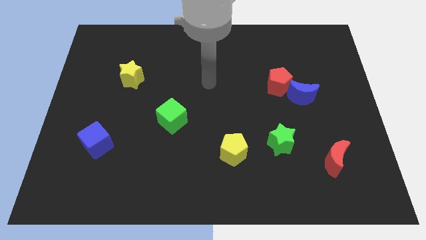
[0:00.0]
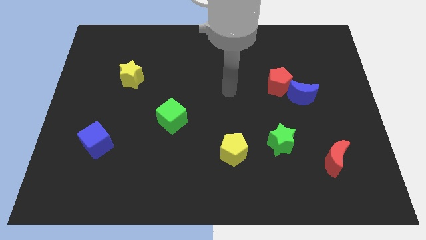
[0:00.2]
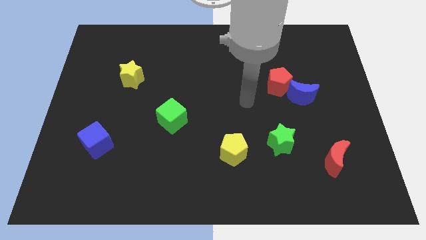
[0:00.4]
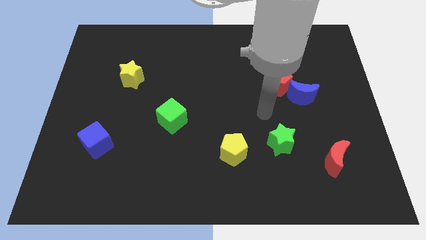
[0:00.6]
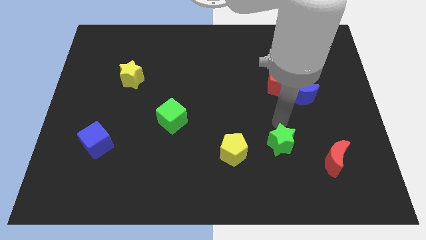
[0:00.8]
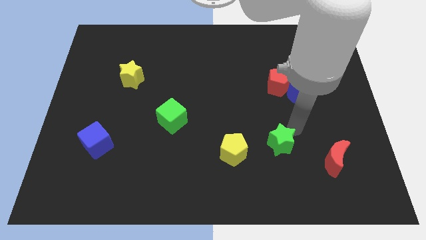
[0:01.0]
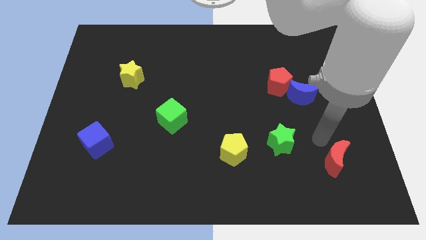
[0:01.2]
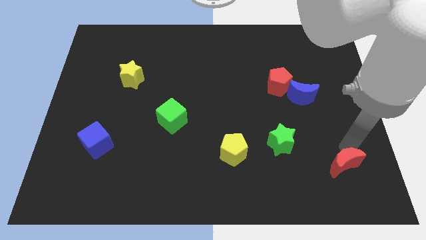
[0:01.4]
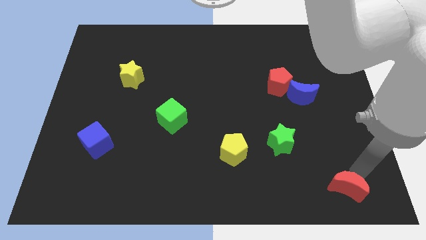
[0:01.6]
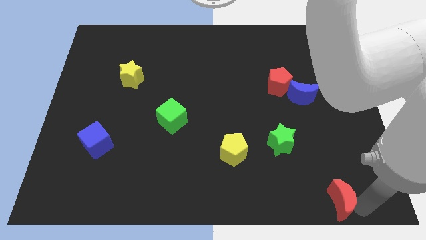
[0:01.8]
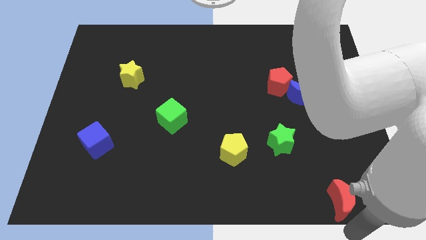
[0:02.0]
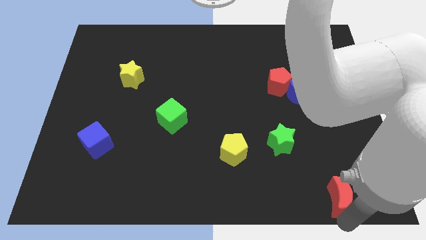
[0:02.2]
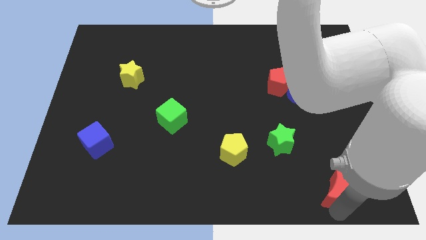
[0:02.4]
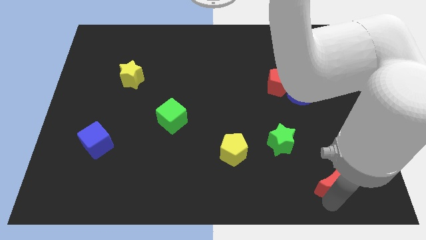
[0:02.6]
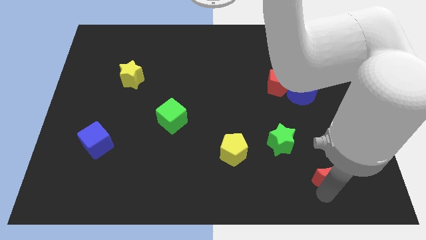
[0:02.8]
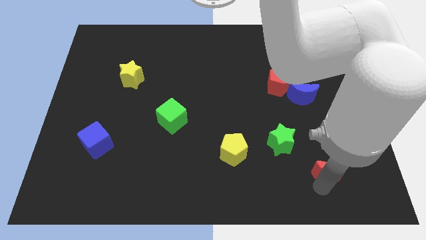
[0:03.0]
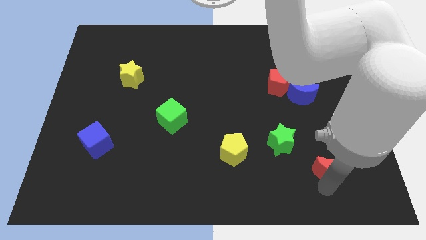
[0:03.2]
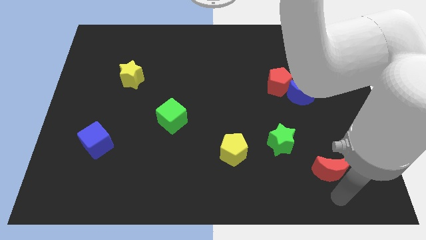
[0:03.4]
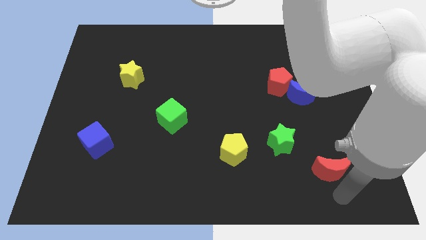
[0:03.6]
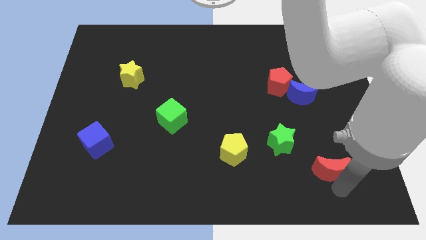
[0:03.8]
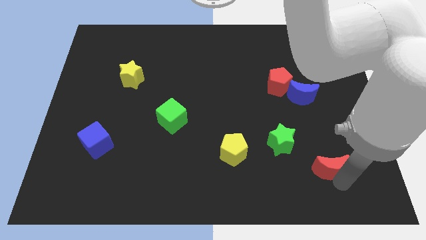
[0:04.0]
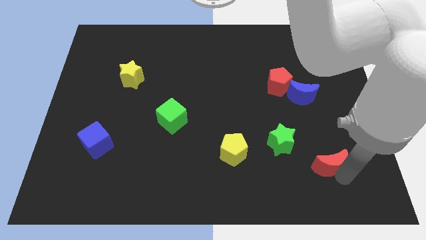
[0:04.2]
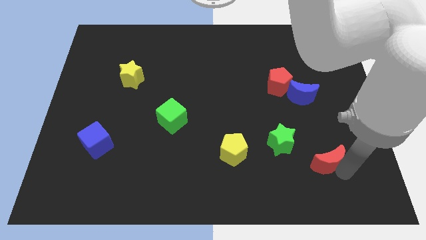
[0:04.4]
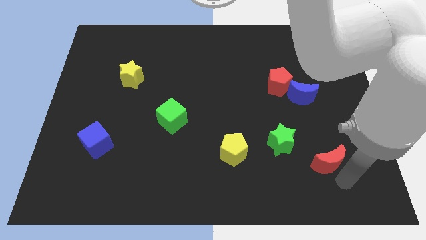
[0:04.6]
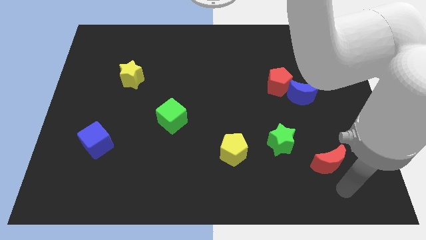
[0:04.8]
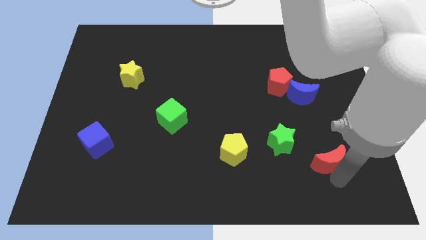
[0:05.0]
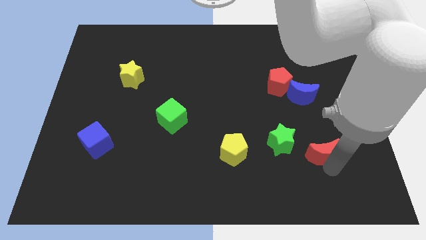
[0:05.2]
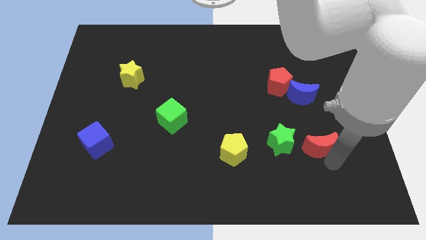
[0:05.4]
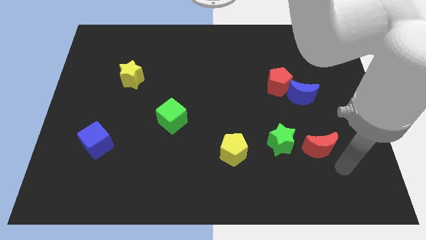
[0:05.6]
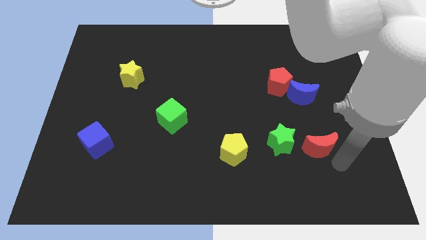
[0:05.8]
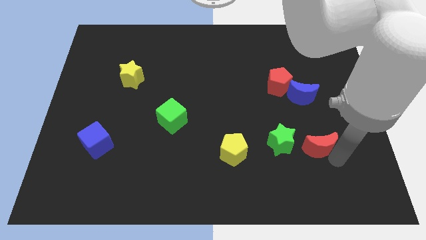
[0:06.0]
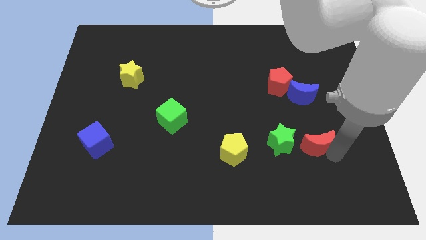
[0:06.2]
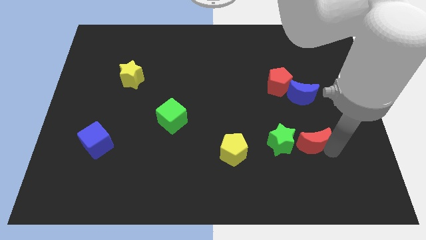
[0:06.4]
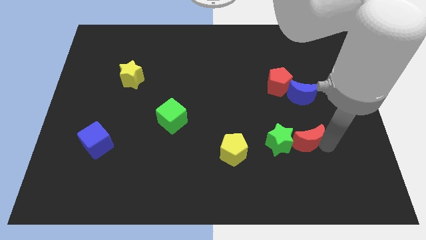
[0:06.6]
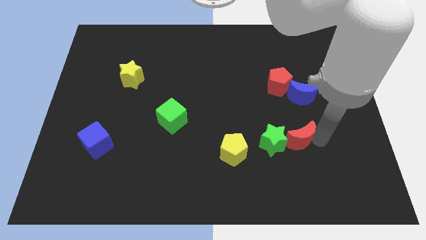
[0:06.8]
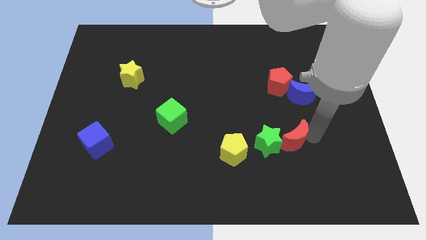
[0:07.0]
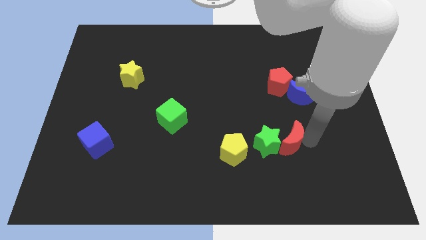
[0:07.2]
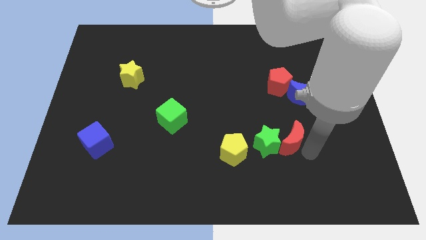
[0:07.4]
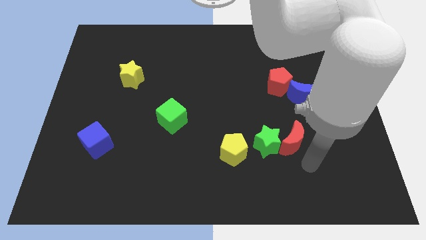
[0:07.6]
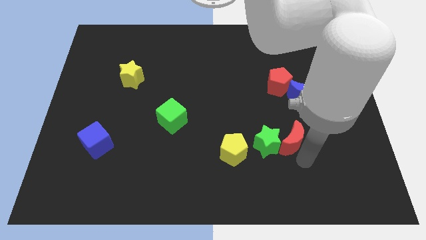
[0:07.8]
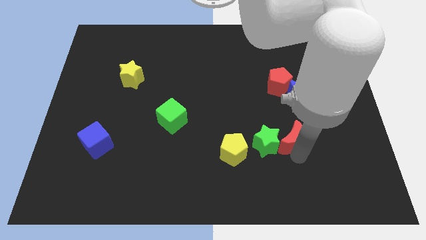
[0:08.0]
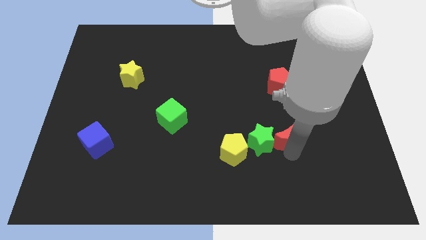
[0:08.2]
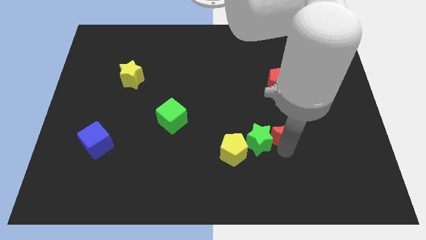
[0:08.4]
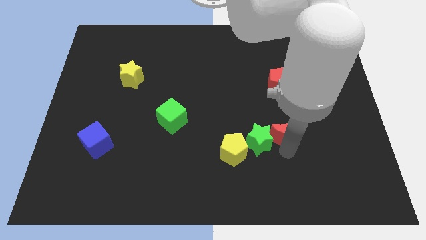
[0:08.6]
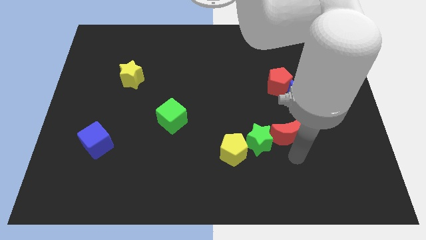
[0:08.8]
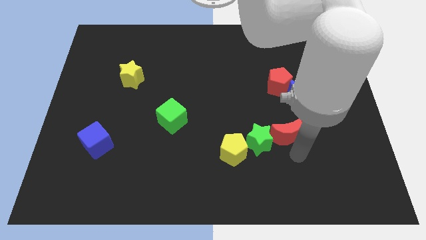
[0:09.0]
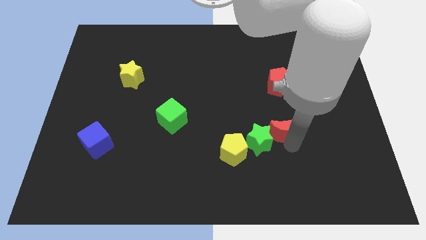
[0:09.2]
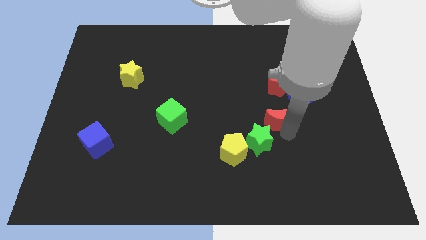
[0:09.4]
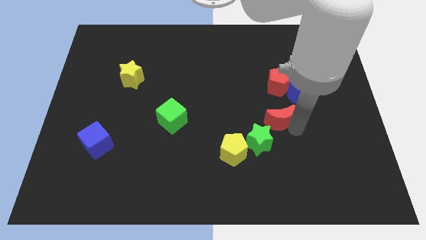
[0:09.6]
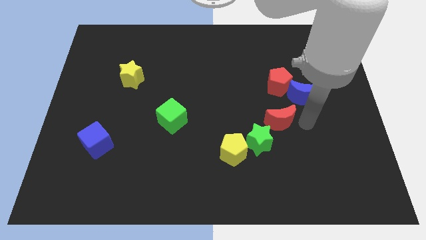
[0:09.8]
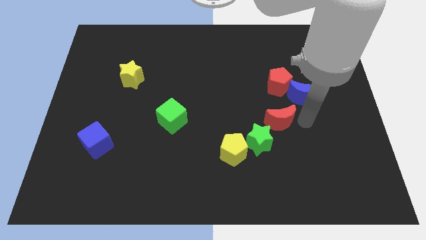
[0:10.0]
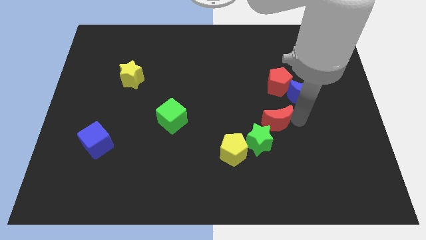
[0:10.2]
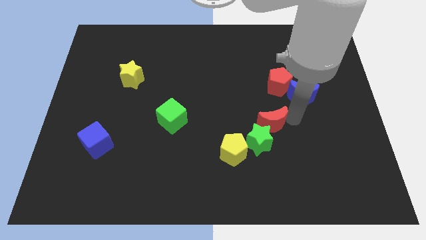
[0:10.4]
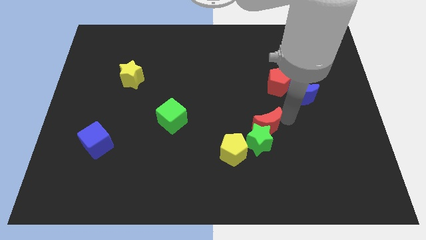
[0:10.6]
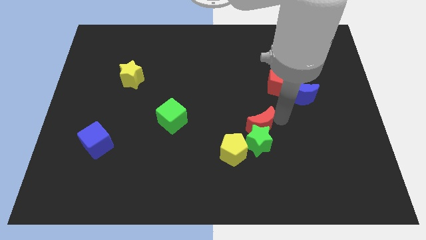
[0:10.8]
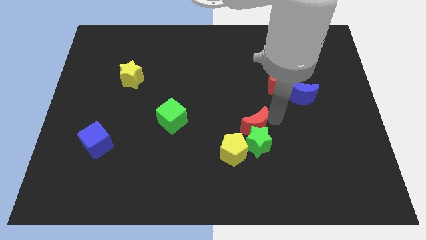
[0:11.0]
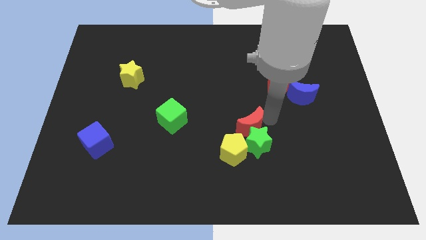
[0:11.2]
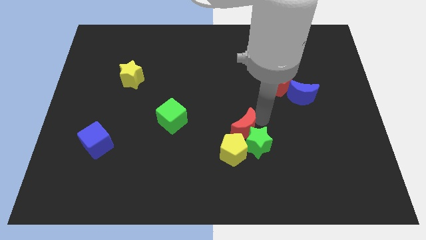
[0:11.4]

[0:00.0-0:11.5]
push the red moon just left of the green star

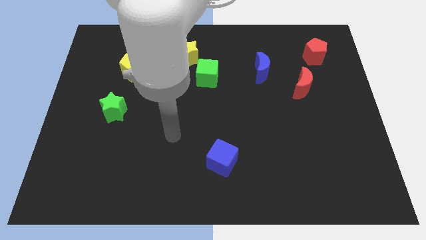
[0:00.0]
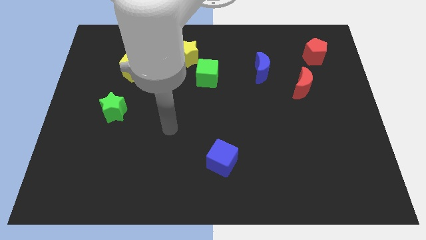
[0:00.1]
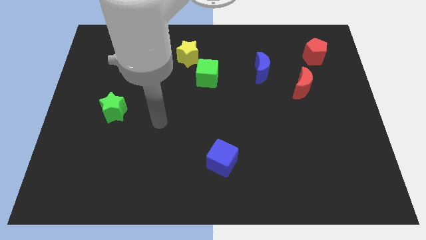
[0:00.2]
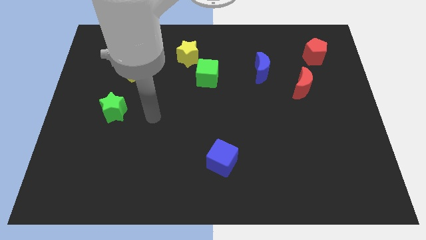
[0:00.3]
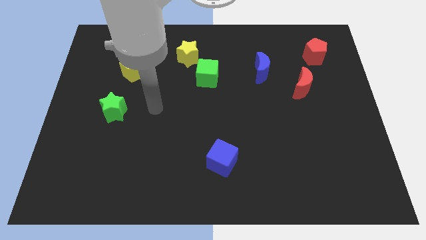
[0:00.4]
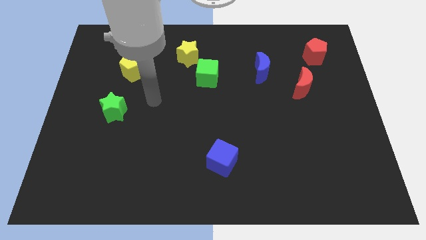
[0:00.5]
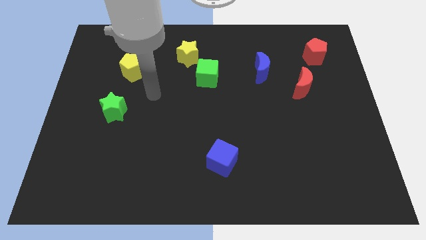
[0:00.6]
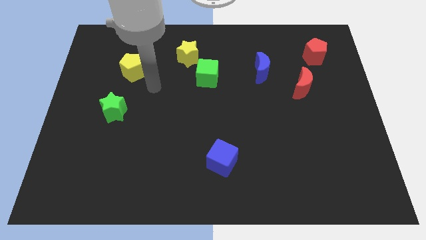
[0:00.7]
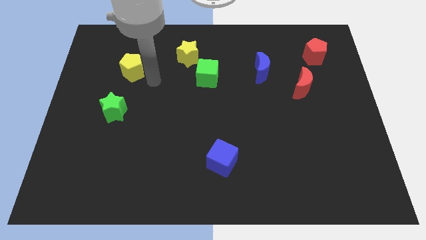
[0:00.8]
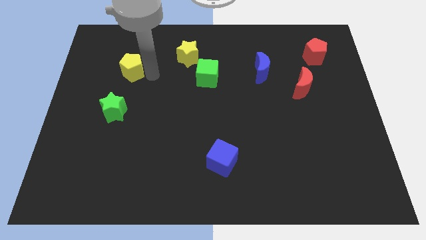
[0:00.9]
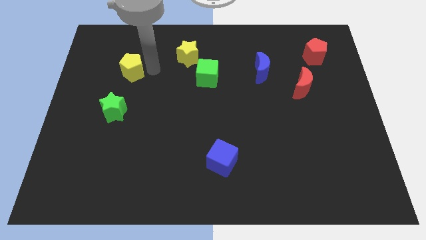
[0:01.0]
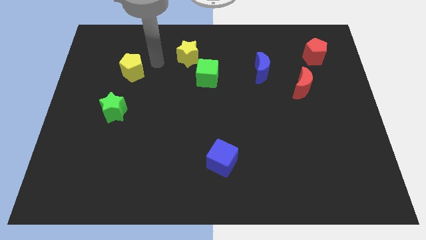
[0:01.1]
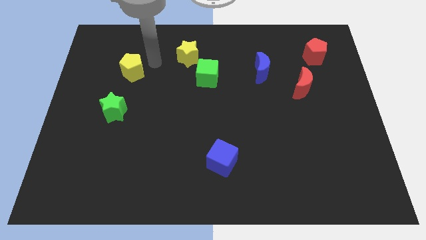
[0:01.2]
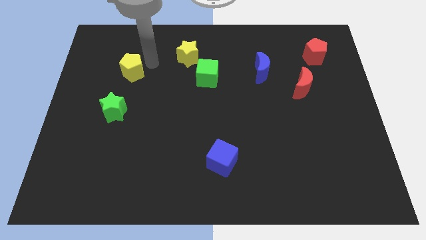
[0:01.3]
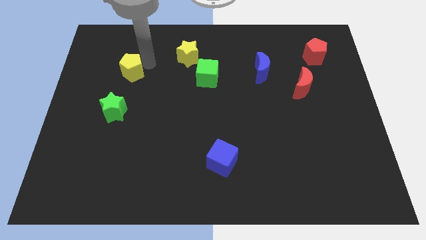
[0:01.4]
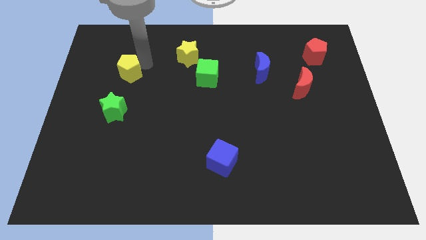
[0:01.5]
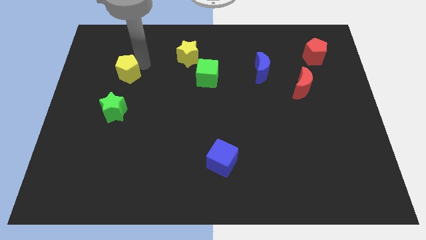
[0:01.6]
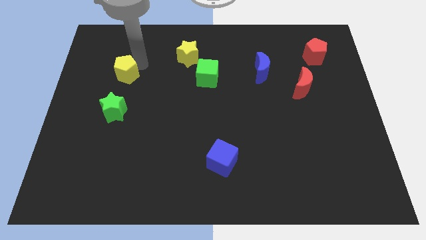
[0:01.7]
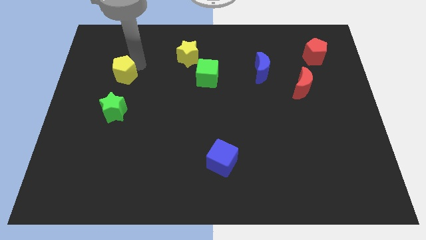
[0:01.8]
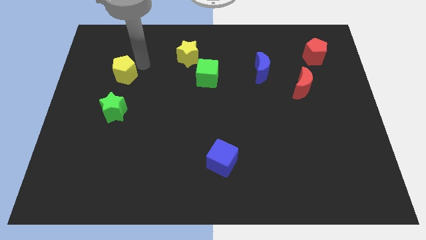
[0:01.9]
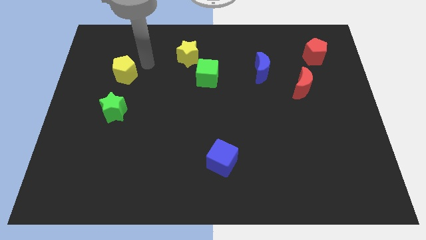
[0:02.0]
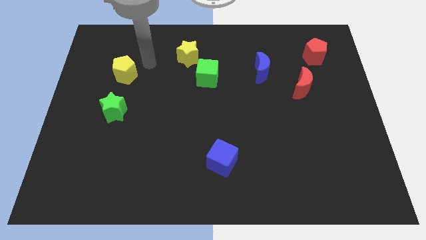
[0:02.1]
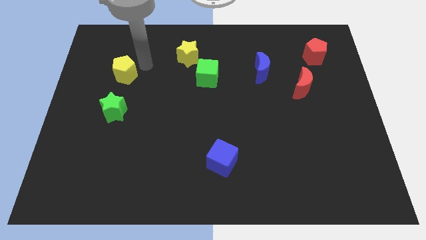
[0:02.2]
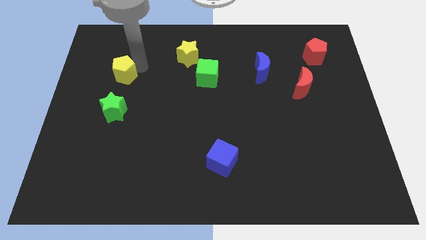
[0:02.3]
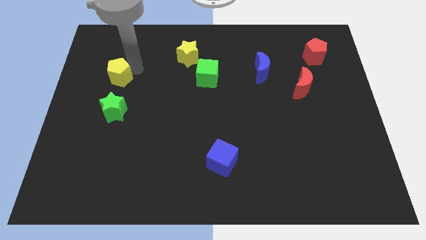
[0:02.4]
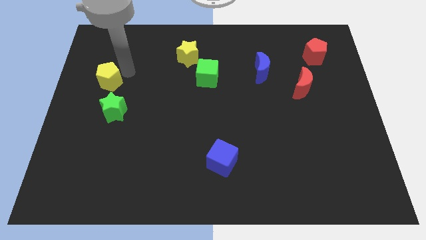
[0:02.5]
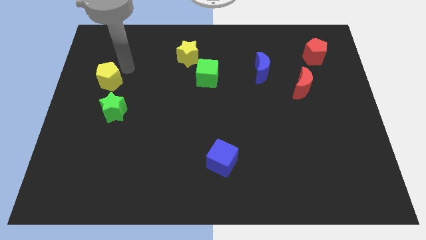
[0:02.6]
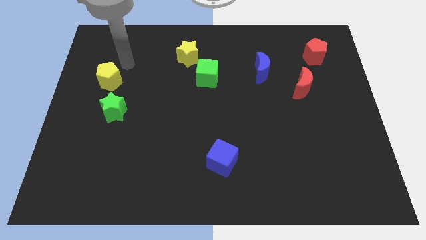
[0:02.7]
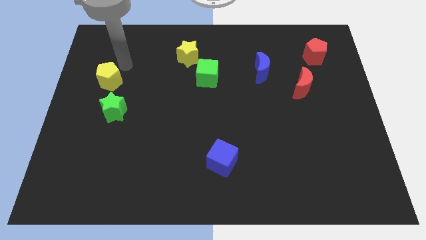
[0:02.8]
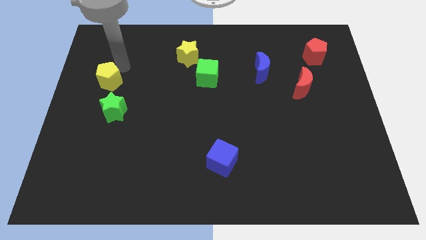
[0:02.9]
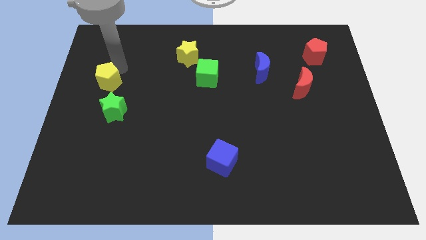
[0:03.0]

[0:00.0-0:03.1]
push the yellow pentagon diagonally up and to the left of the green star
